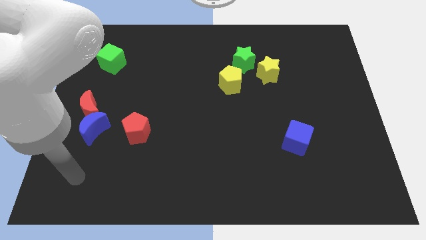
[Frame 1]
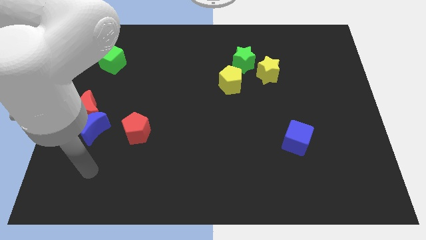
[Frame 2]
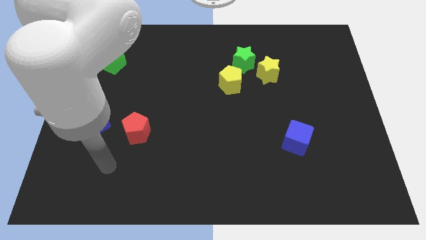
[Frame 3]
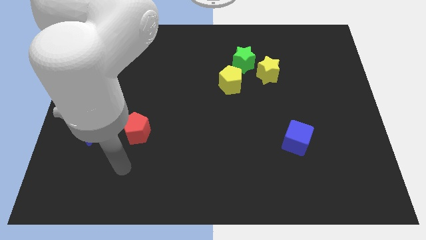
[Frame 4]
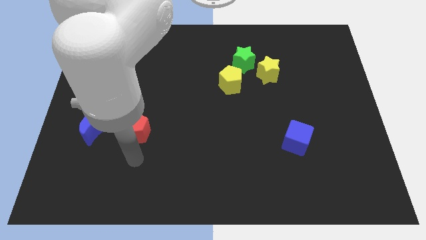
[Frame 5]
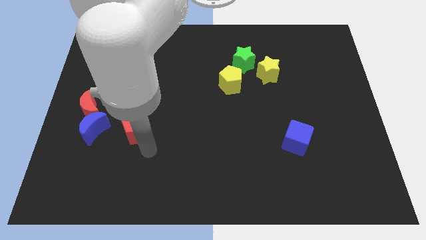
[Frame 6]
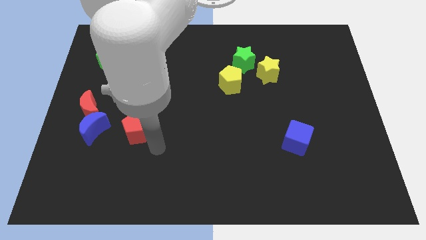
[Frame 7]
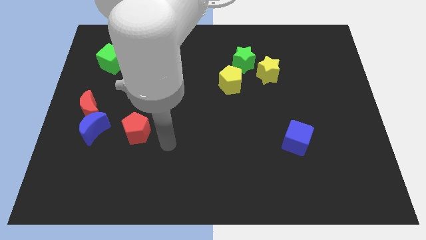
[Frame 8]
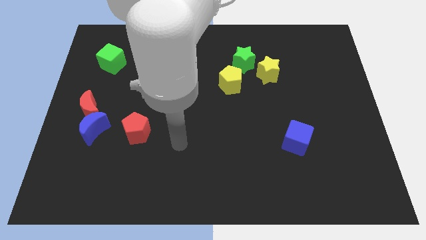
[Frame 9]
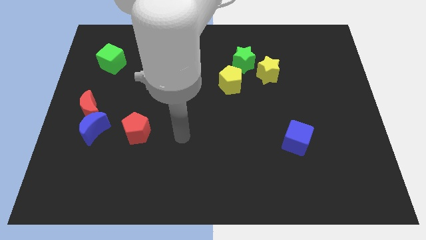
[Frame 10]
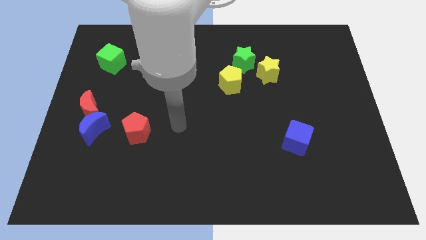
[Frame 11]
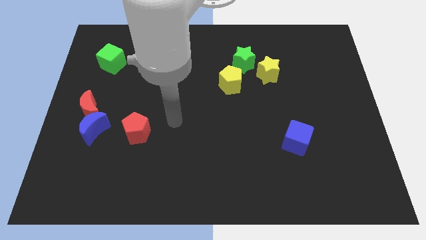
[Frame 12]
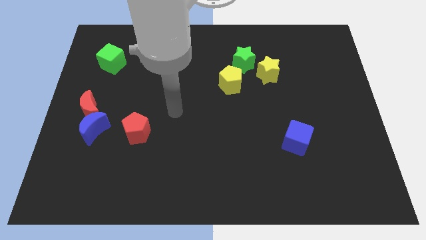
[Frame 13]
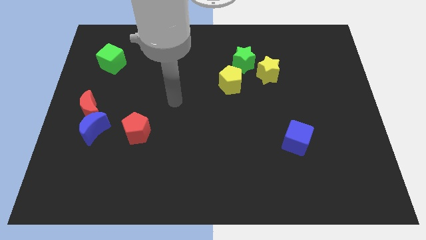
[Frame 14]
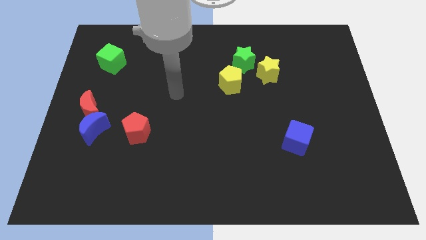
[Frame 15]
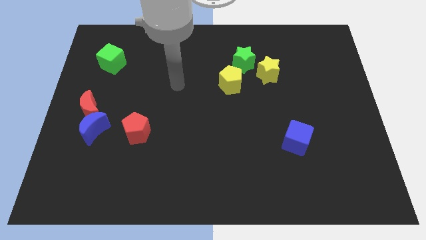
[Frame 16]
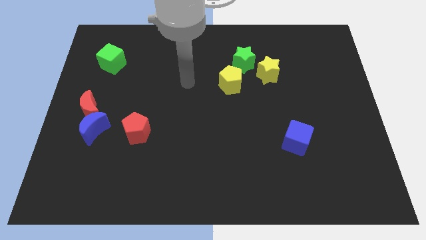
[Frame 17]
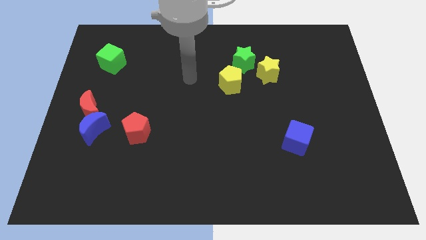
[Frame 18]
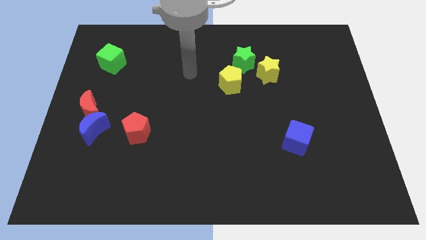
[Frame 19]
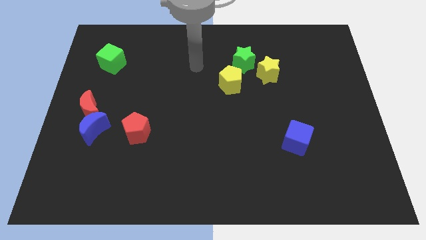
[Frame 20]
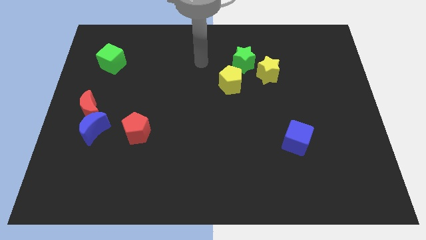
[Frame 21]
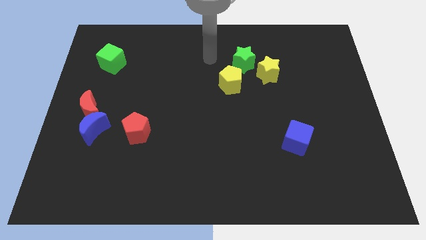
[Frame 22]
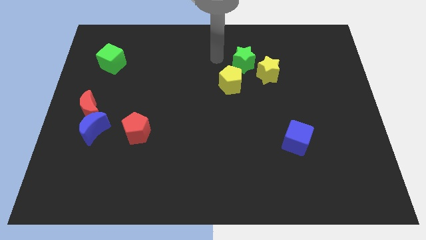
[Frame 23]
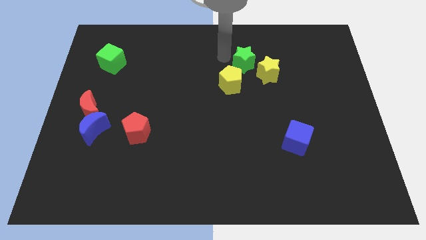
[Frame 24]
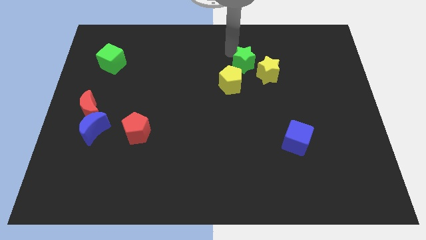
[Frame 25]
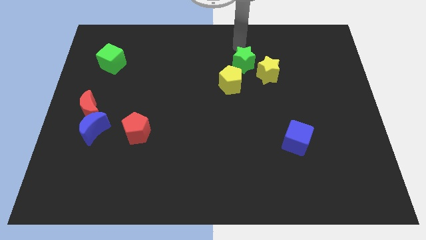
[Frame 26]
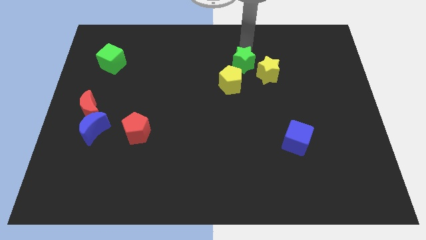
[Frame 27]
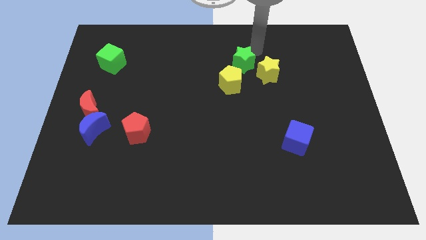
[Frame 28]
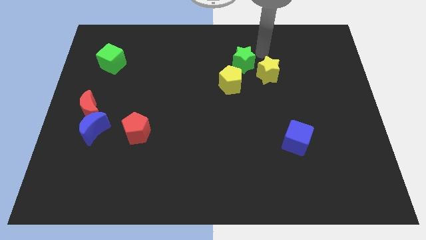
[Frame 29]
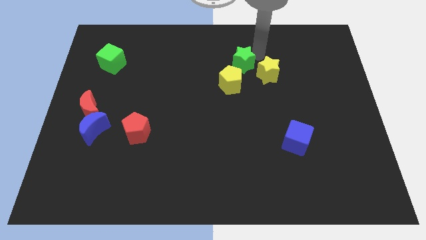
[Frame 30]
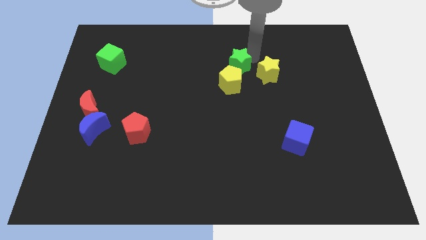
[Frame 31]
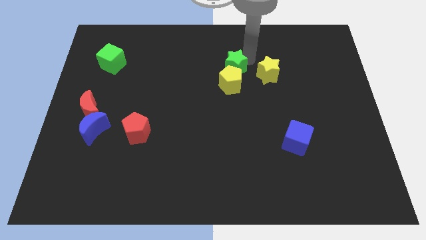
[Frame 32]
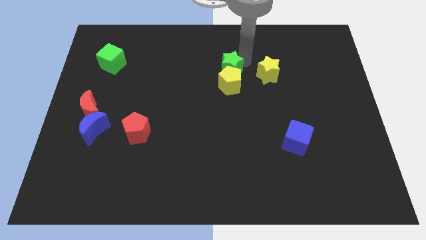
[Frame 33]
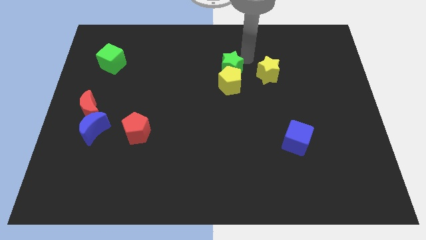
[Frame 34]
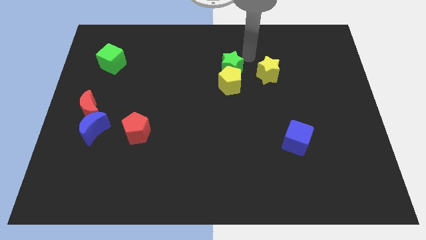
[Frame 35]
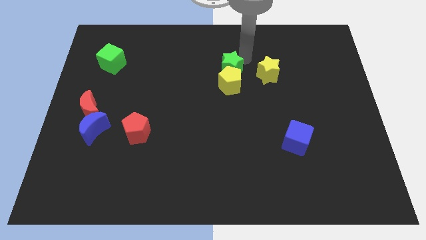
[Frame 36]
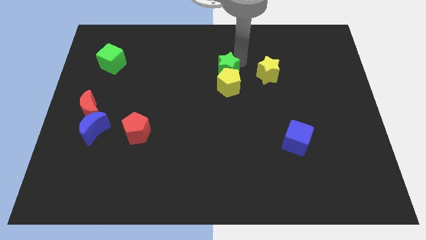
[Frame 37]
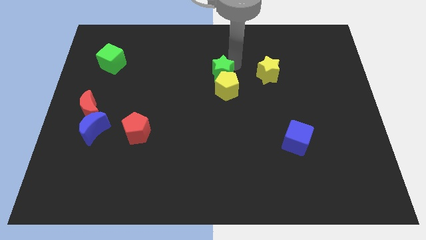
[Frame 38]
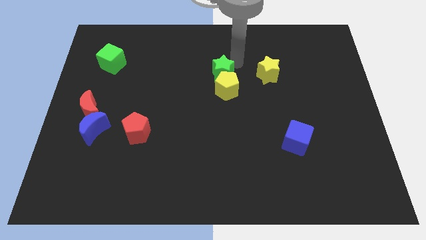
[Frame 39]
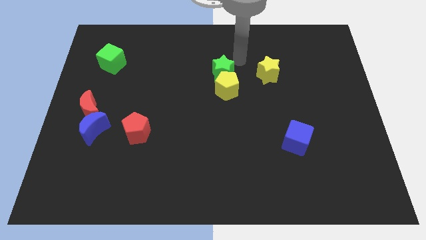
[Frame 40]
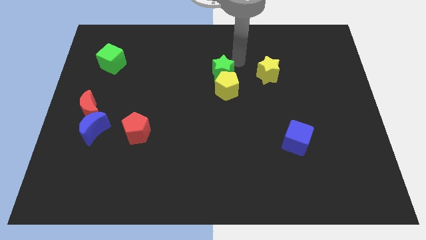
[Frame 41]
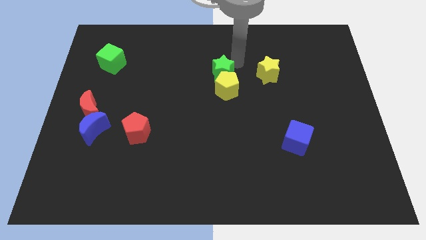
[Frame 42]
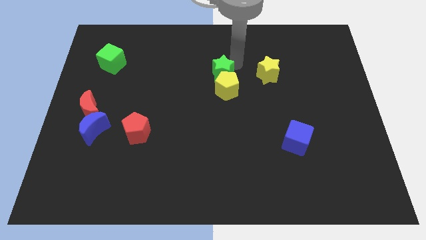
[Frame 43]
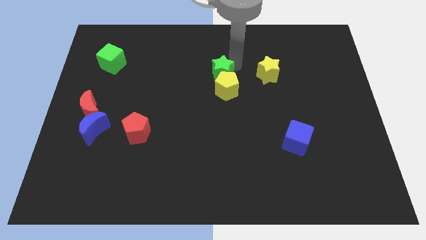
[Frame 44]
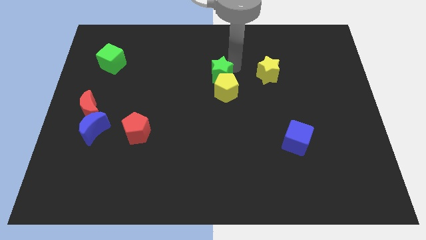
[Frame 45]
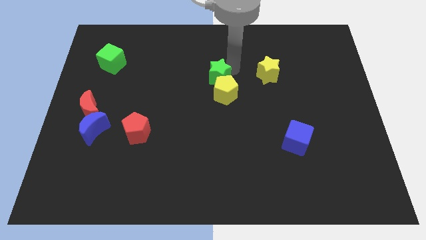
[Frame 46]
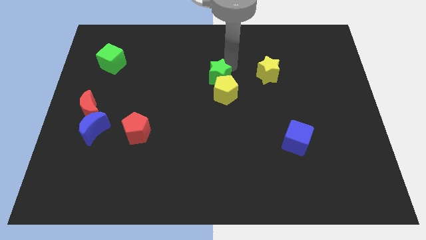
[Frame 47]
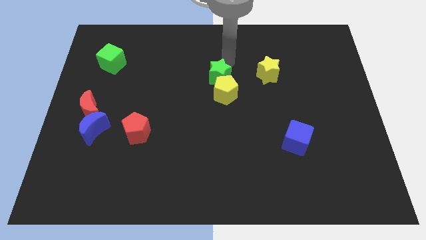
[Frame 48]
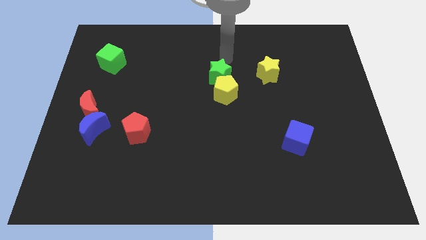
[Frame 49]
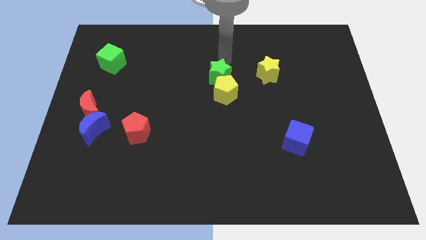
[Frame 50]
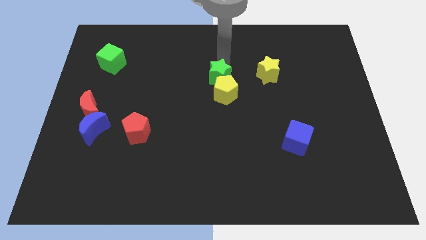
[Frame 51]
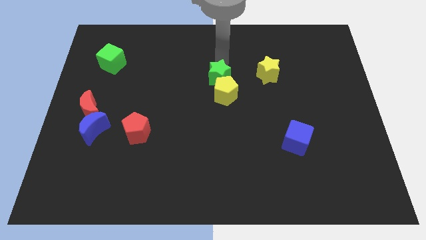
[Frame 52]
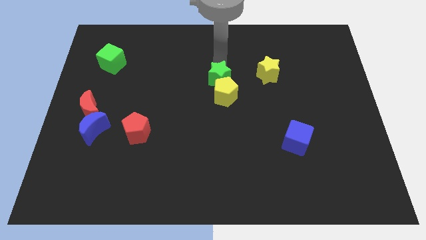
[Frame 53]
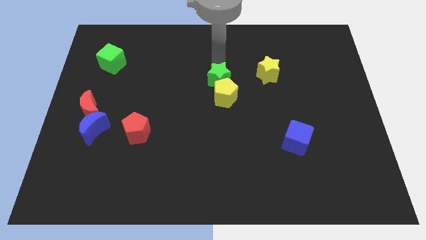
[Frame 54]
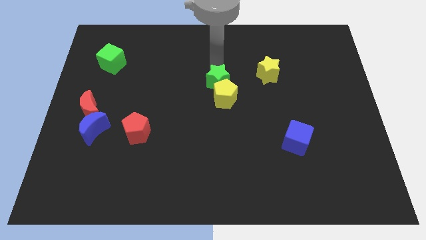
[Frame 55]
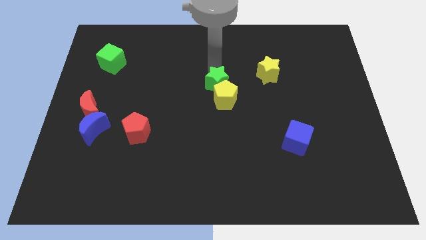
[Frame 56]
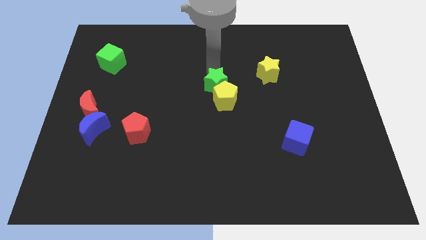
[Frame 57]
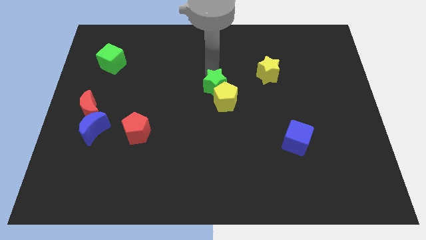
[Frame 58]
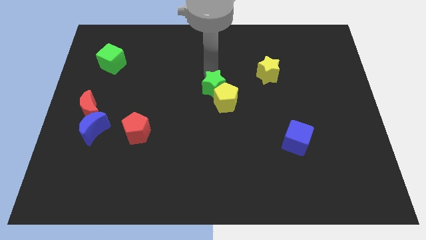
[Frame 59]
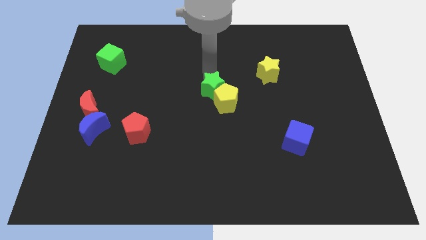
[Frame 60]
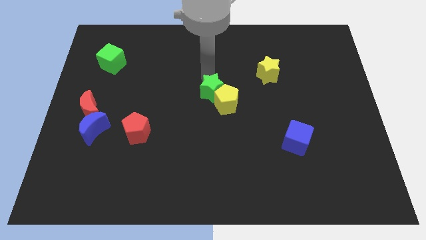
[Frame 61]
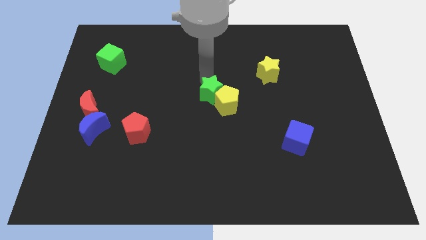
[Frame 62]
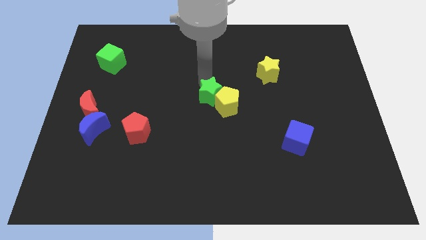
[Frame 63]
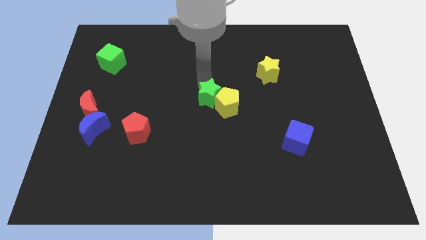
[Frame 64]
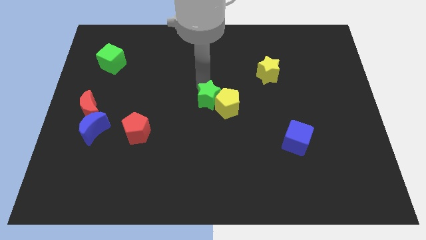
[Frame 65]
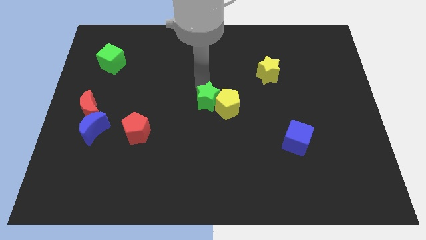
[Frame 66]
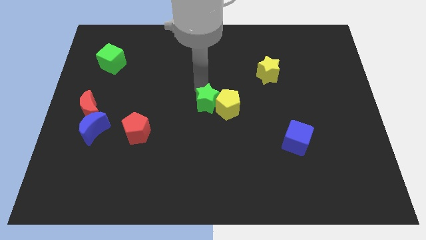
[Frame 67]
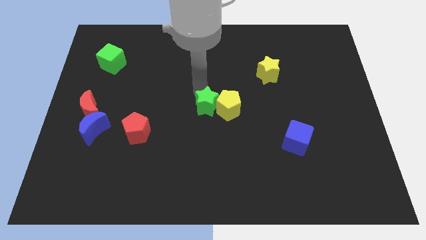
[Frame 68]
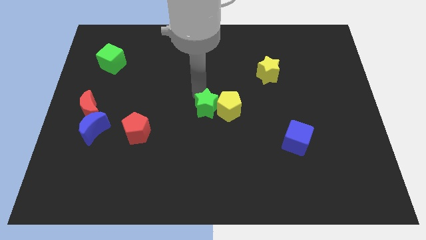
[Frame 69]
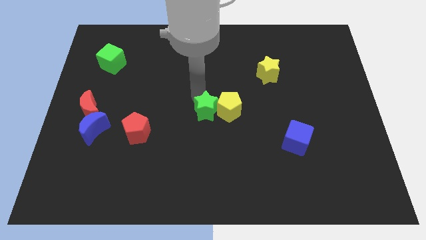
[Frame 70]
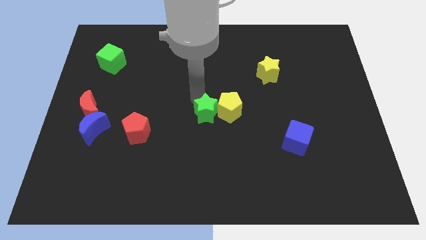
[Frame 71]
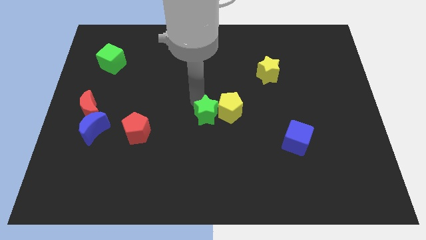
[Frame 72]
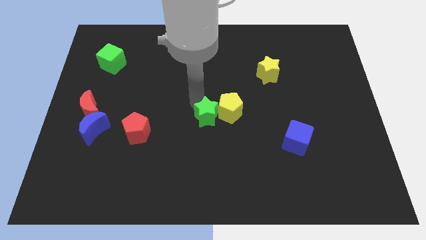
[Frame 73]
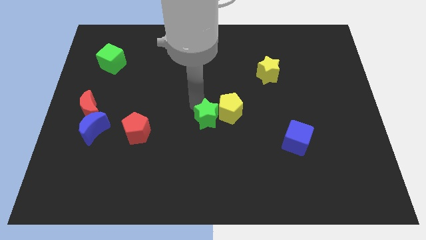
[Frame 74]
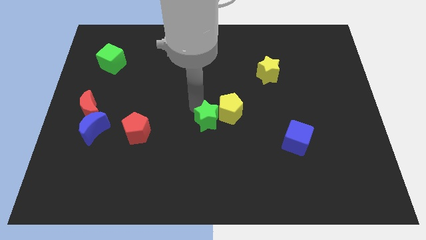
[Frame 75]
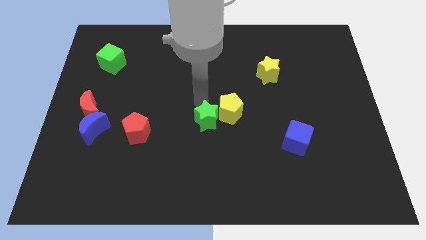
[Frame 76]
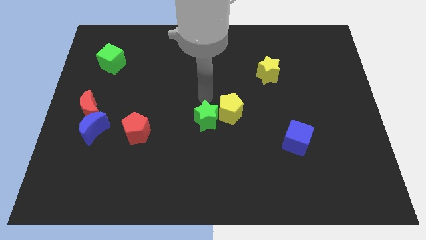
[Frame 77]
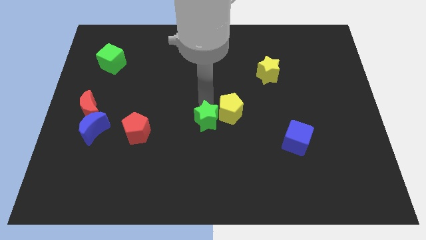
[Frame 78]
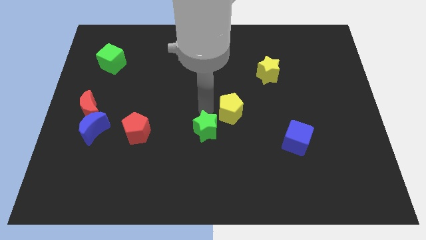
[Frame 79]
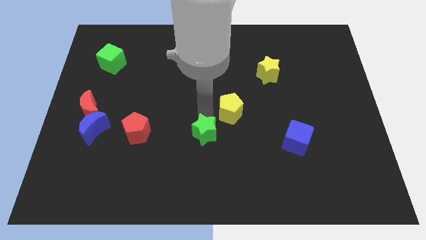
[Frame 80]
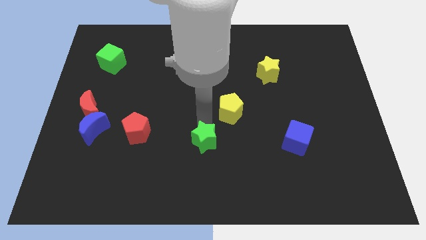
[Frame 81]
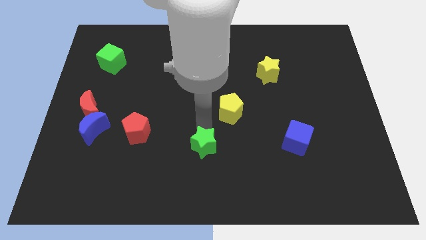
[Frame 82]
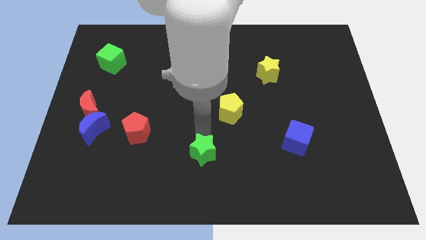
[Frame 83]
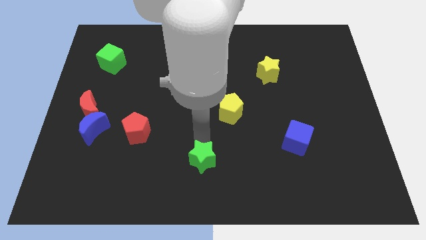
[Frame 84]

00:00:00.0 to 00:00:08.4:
move the green star to the bottom
